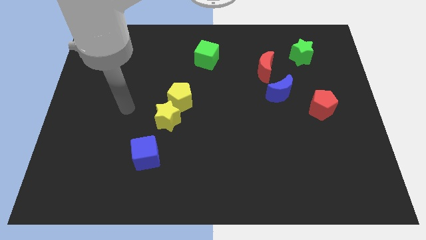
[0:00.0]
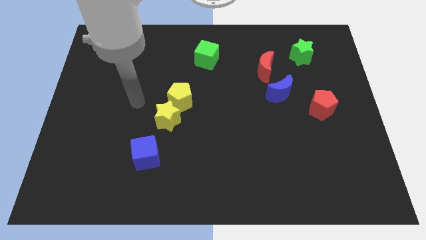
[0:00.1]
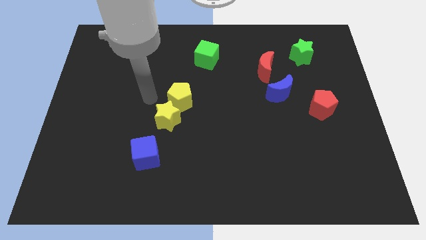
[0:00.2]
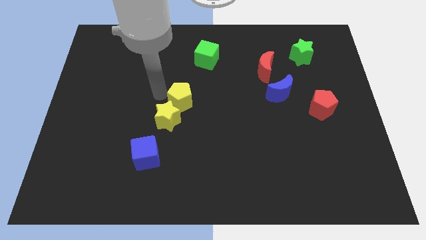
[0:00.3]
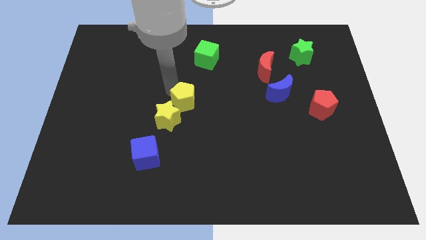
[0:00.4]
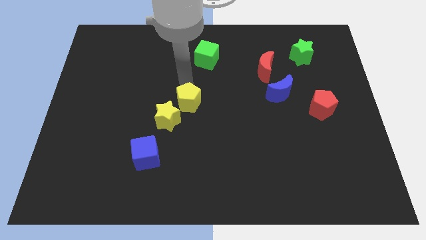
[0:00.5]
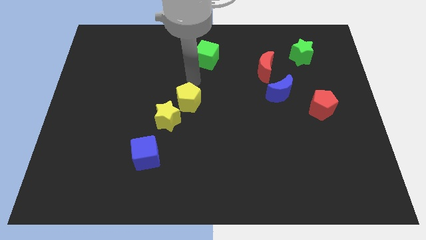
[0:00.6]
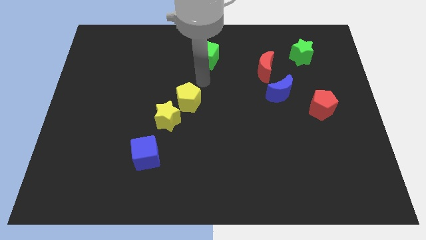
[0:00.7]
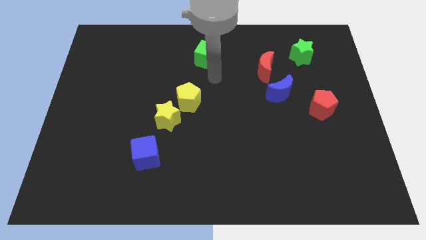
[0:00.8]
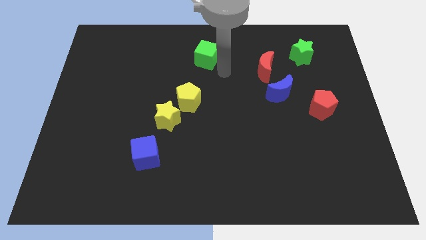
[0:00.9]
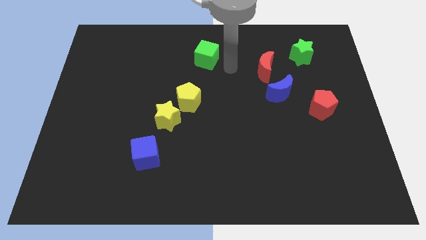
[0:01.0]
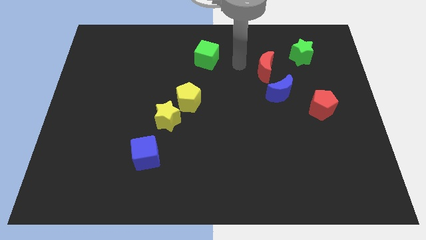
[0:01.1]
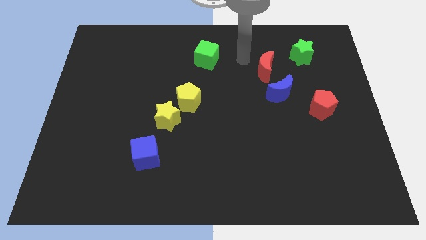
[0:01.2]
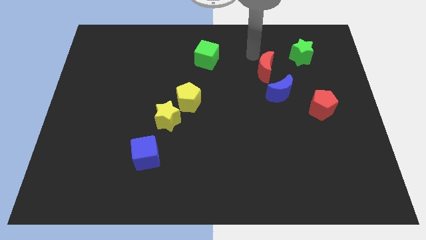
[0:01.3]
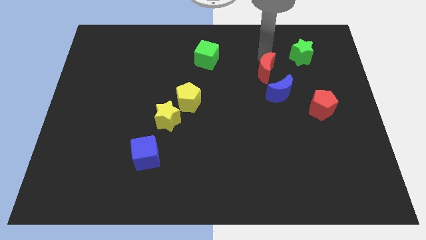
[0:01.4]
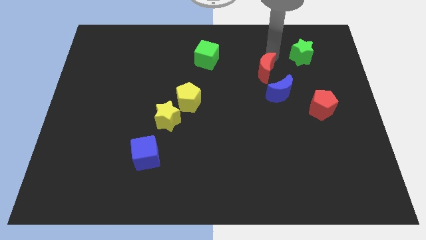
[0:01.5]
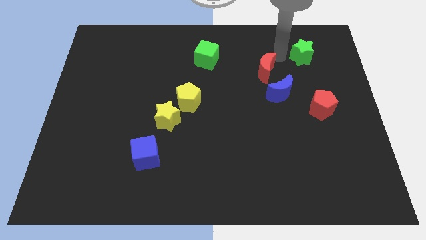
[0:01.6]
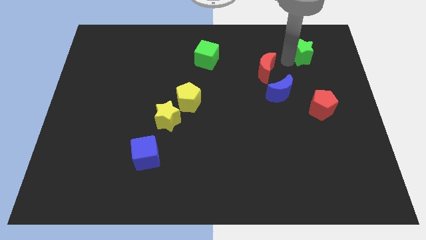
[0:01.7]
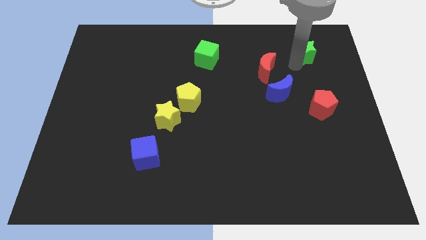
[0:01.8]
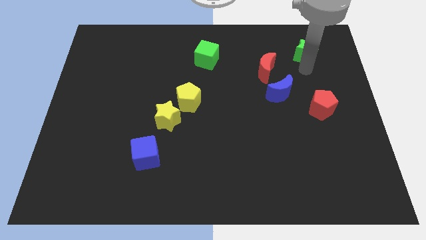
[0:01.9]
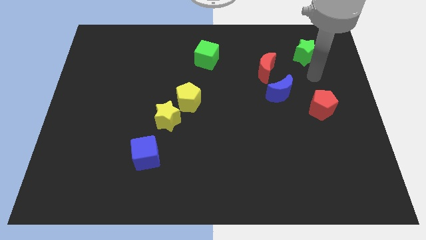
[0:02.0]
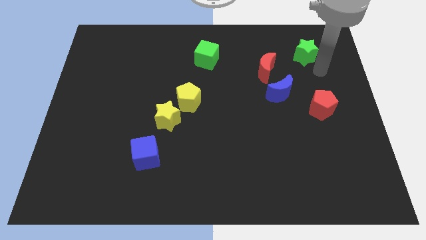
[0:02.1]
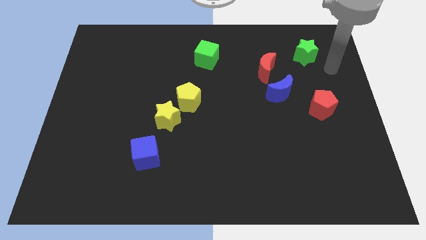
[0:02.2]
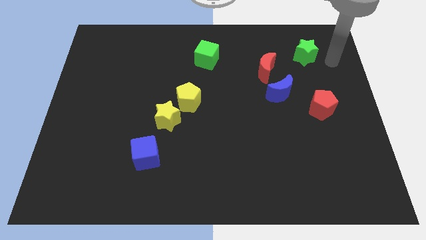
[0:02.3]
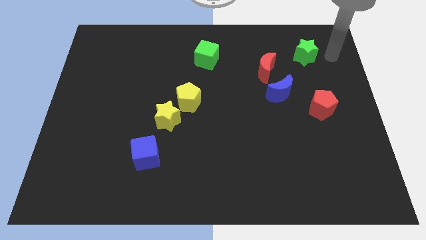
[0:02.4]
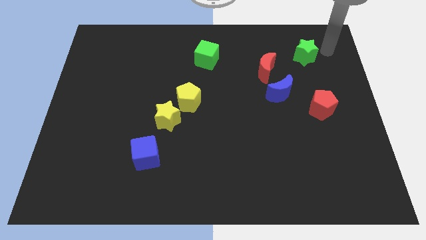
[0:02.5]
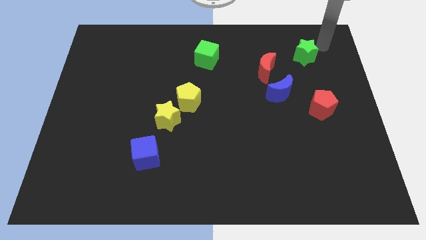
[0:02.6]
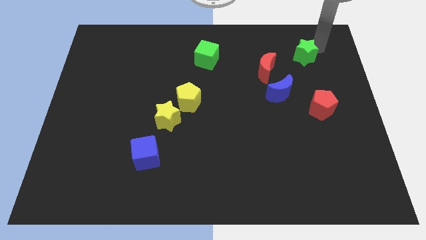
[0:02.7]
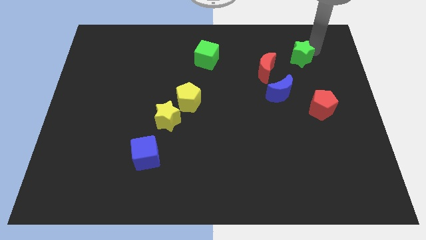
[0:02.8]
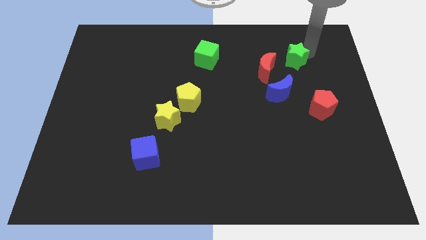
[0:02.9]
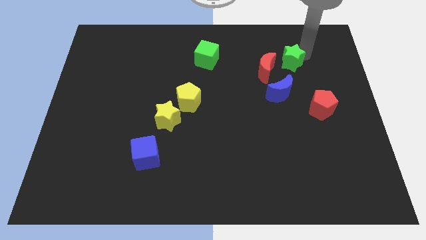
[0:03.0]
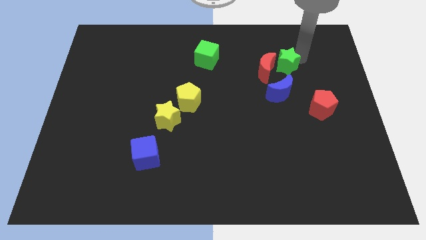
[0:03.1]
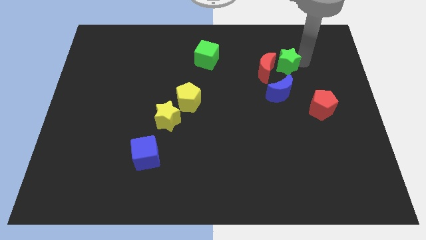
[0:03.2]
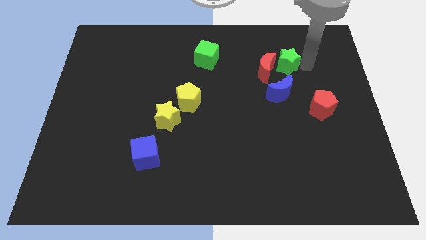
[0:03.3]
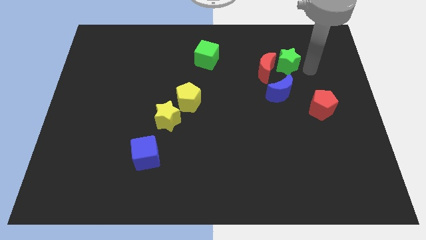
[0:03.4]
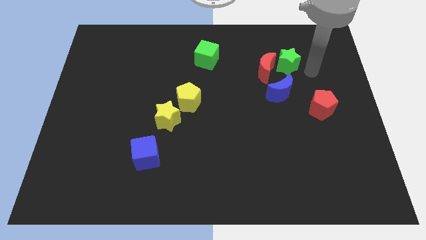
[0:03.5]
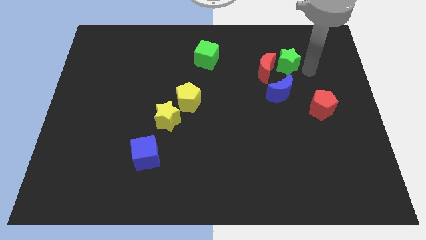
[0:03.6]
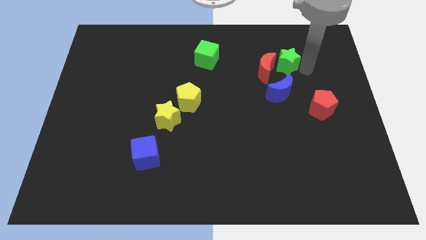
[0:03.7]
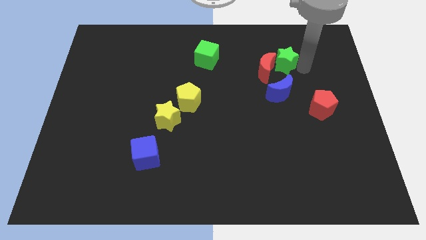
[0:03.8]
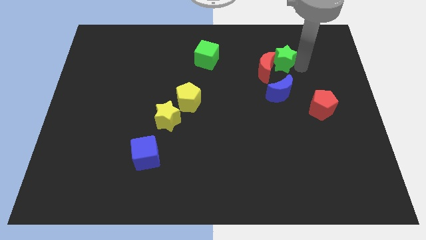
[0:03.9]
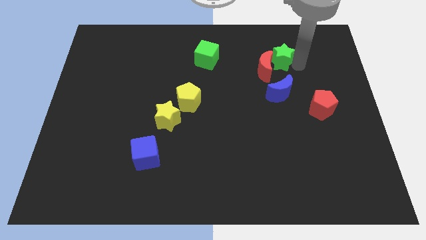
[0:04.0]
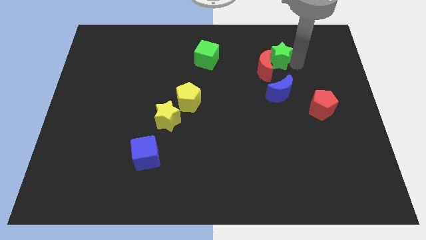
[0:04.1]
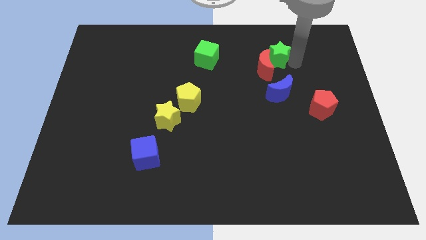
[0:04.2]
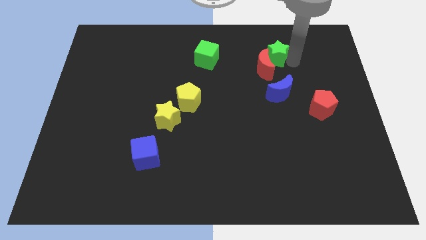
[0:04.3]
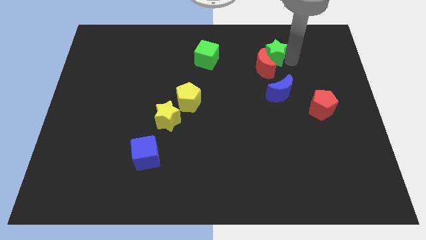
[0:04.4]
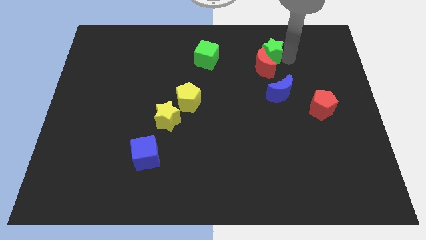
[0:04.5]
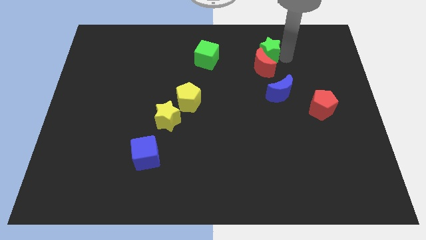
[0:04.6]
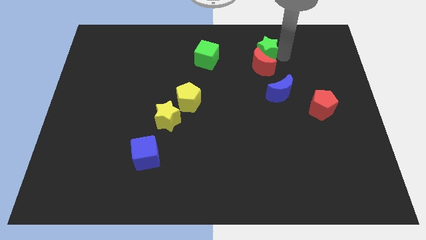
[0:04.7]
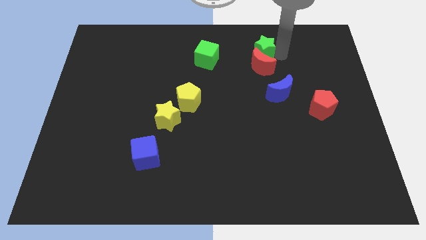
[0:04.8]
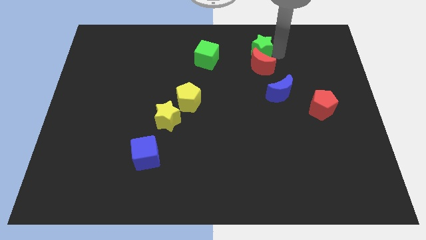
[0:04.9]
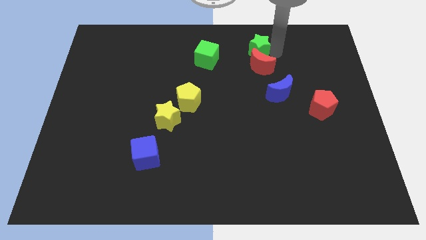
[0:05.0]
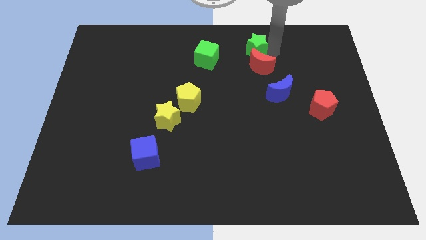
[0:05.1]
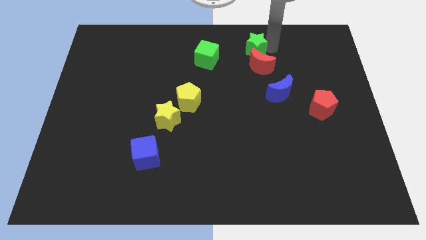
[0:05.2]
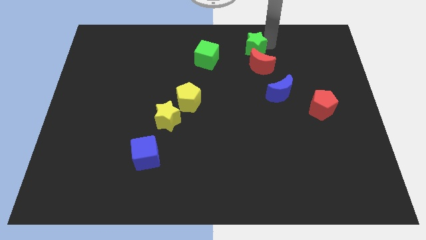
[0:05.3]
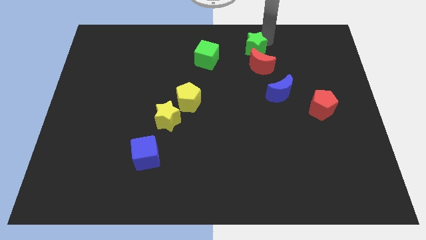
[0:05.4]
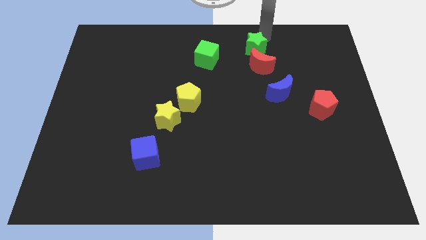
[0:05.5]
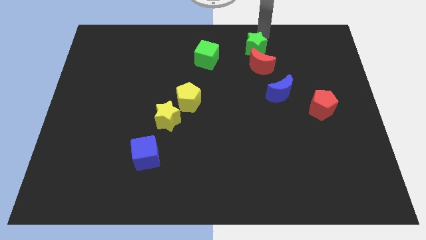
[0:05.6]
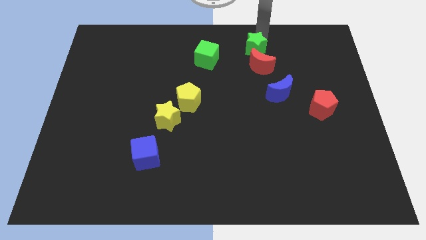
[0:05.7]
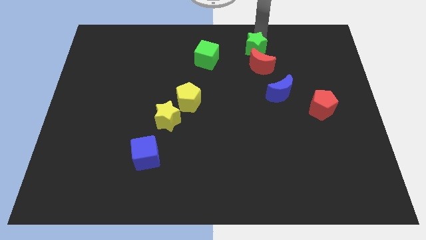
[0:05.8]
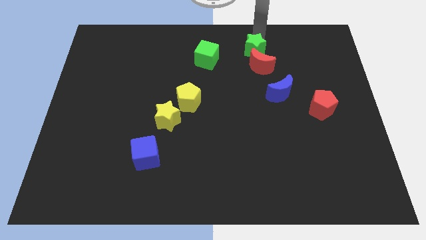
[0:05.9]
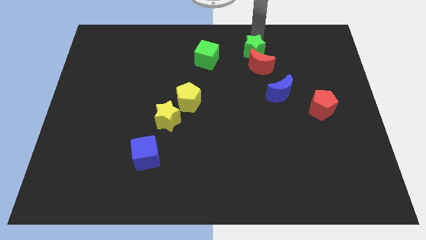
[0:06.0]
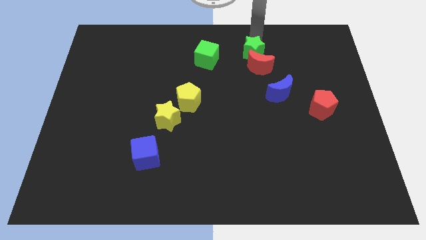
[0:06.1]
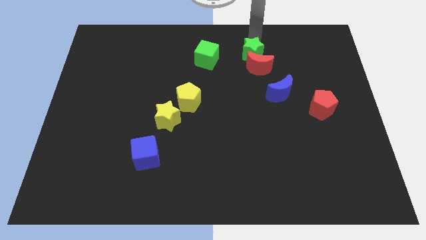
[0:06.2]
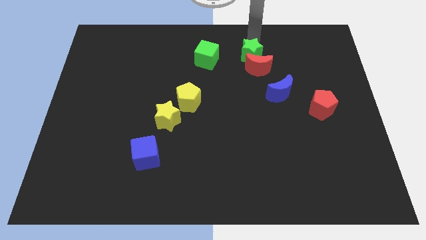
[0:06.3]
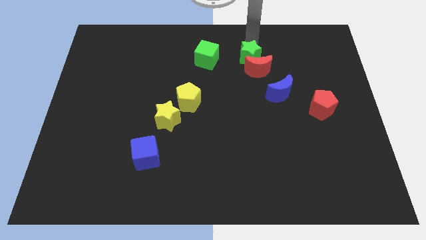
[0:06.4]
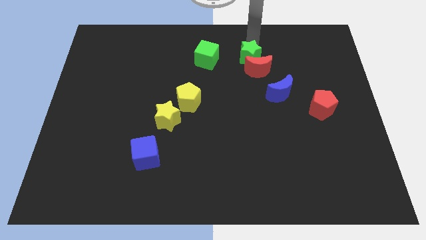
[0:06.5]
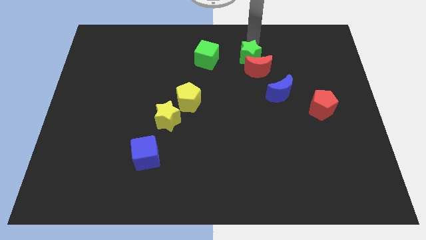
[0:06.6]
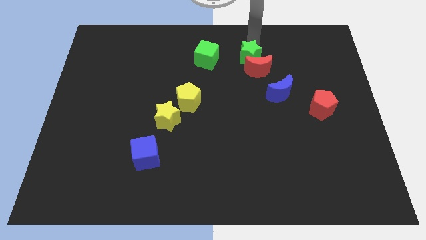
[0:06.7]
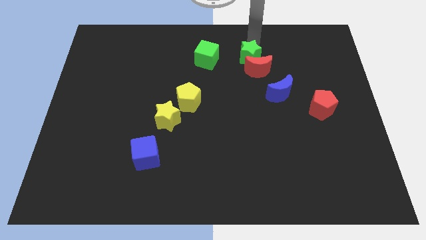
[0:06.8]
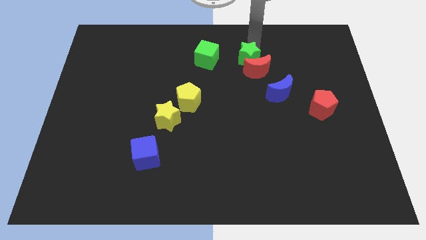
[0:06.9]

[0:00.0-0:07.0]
push the green star a little downwards and to the left diagonally

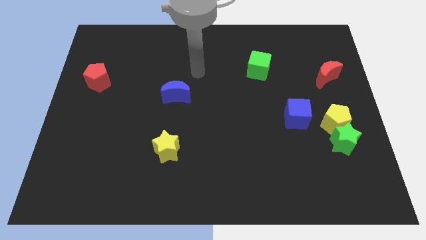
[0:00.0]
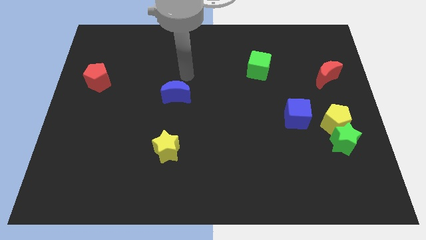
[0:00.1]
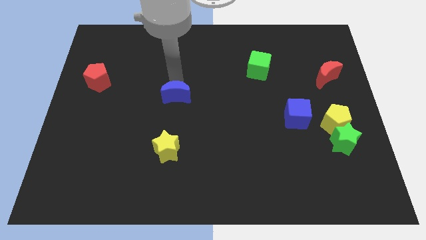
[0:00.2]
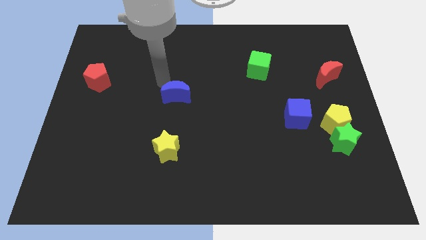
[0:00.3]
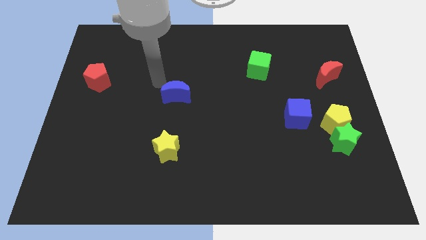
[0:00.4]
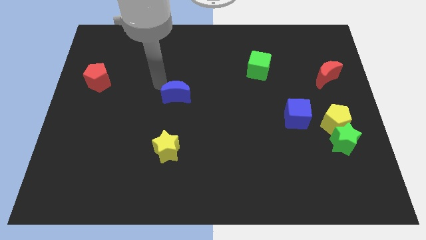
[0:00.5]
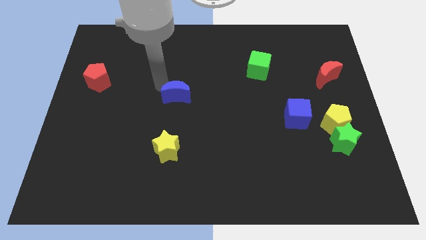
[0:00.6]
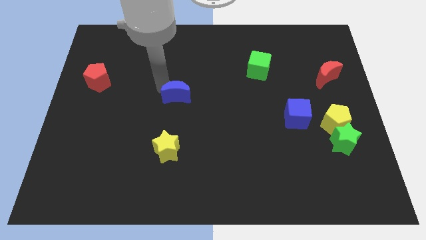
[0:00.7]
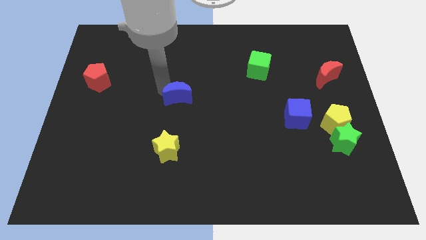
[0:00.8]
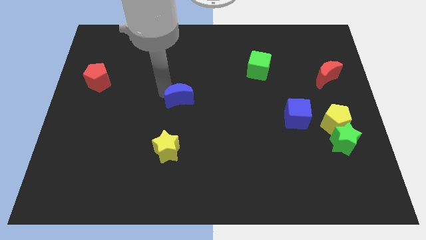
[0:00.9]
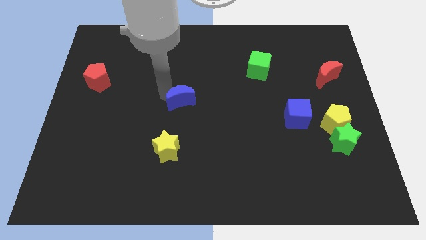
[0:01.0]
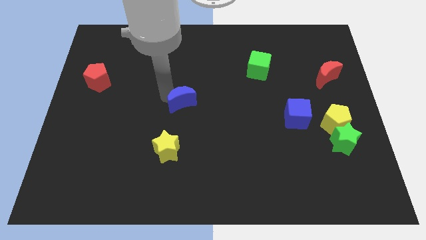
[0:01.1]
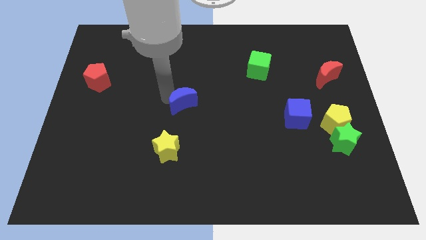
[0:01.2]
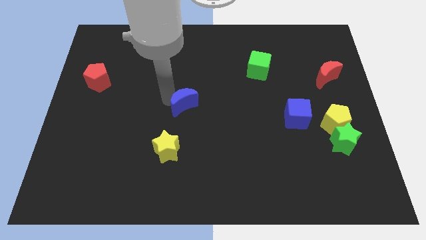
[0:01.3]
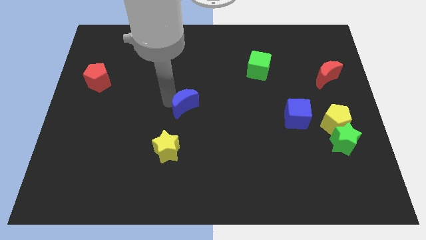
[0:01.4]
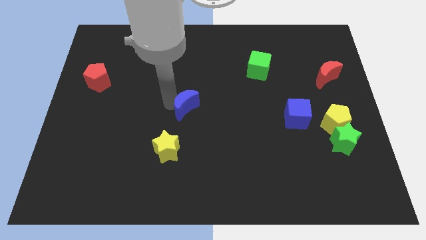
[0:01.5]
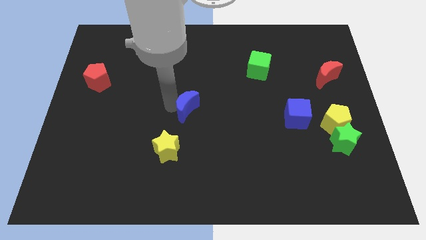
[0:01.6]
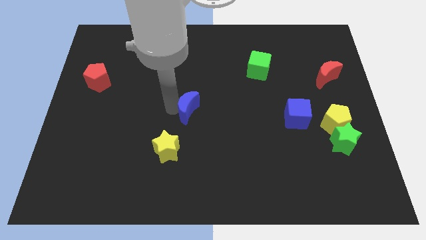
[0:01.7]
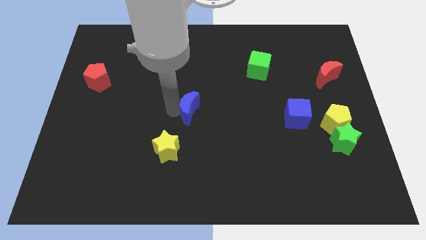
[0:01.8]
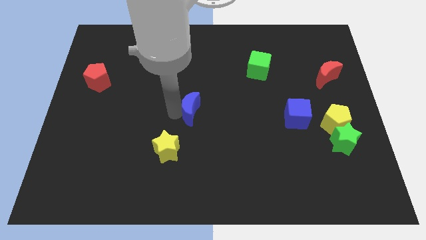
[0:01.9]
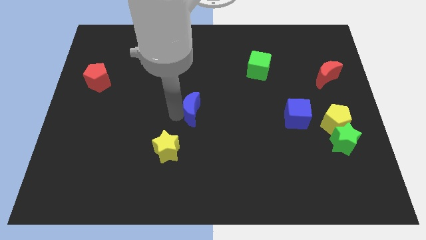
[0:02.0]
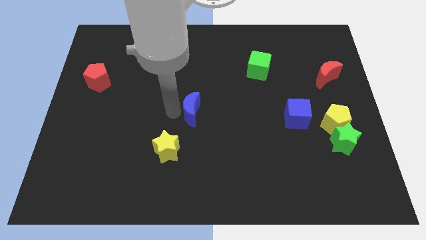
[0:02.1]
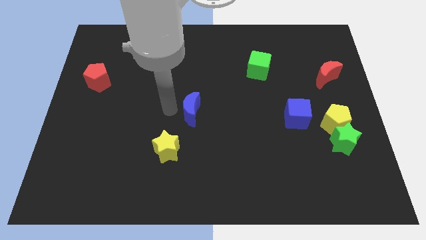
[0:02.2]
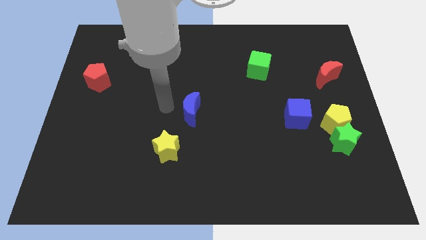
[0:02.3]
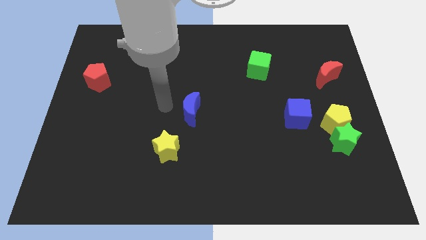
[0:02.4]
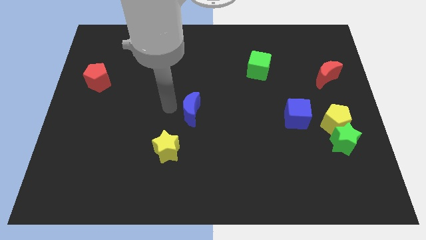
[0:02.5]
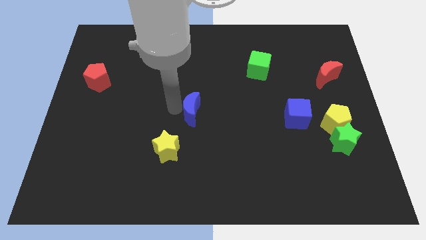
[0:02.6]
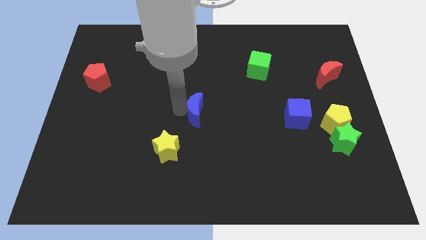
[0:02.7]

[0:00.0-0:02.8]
slide the blue moon a little diagonally downwards and to the right
